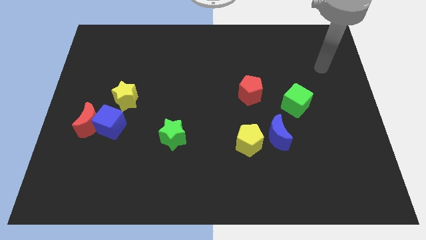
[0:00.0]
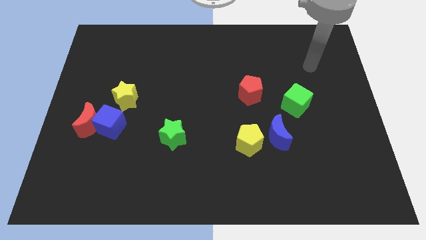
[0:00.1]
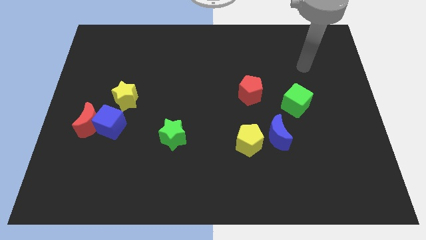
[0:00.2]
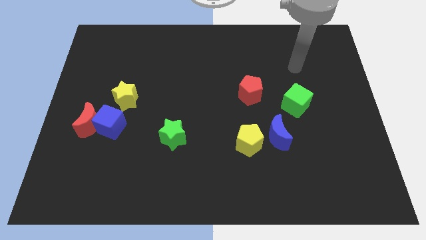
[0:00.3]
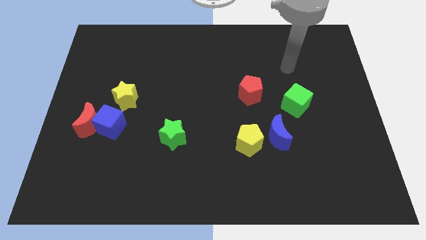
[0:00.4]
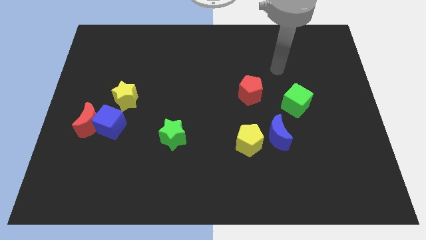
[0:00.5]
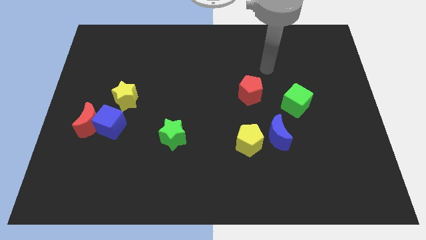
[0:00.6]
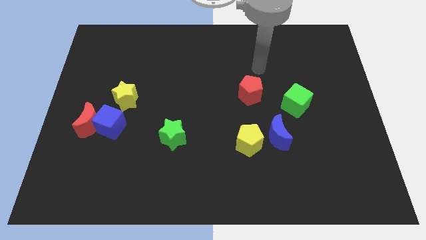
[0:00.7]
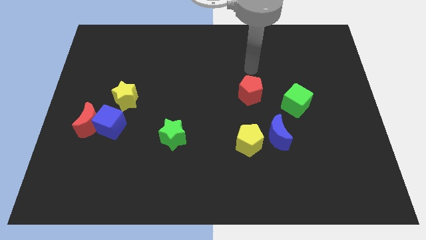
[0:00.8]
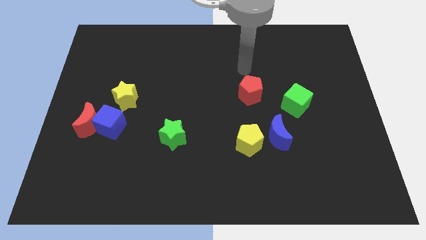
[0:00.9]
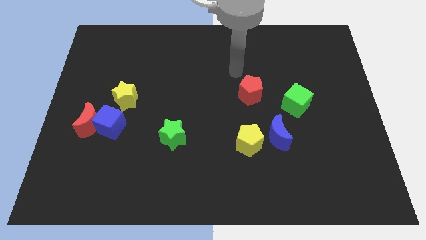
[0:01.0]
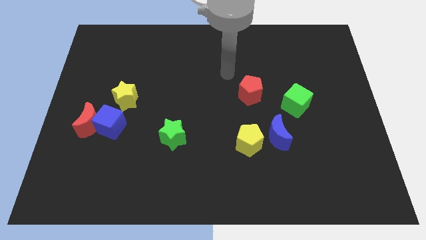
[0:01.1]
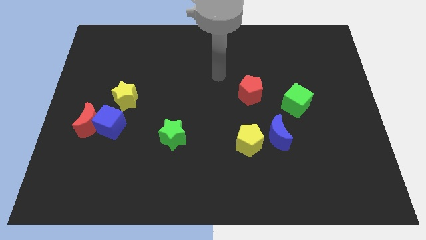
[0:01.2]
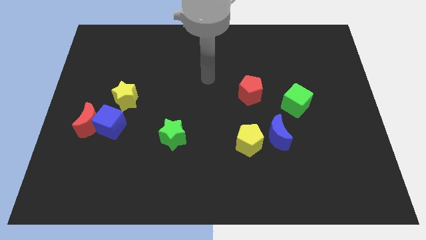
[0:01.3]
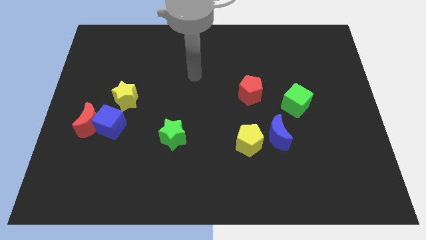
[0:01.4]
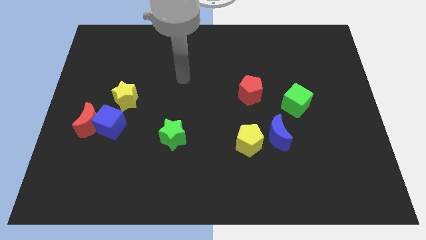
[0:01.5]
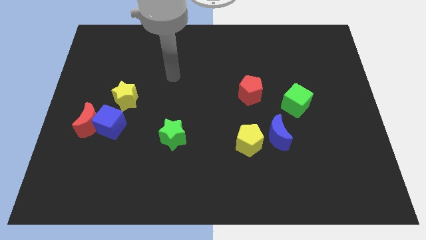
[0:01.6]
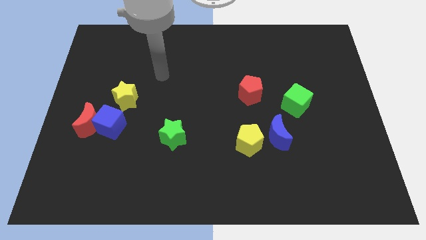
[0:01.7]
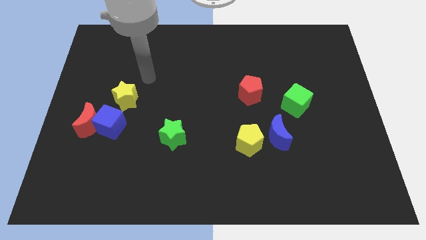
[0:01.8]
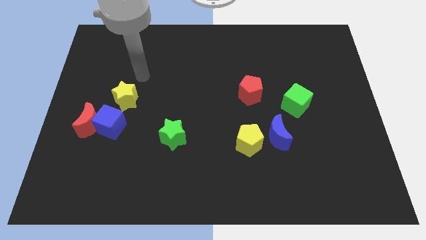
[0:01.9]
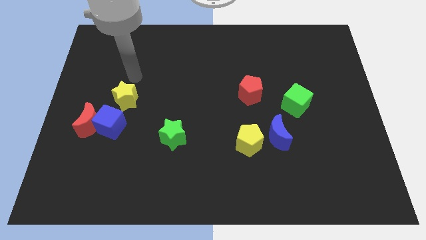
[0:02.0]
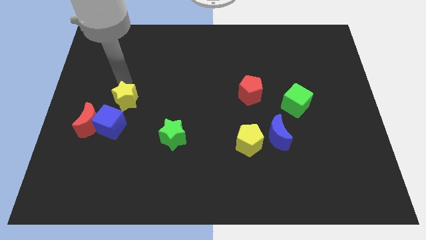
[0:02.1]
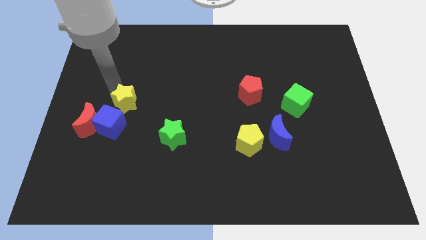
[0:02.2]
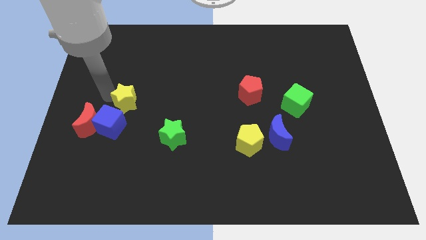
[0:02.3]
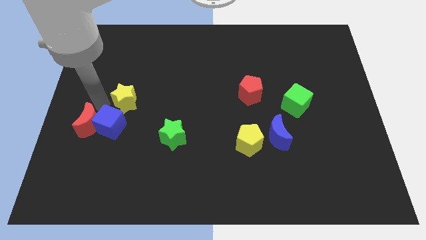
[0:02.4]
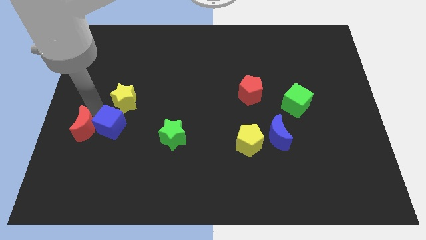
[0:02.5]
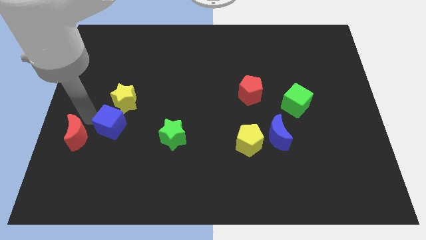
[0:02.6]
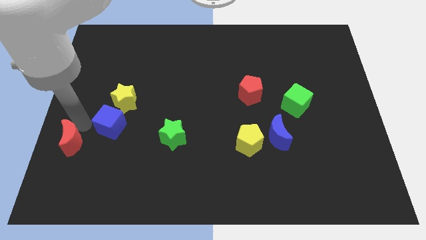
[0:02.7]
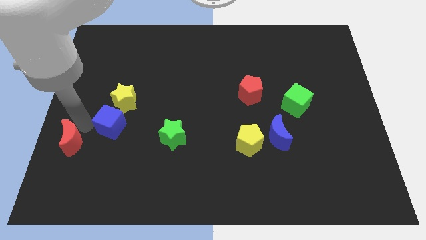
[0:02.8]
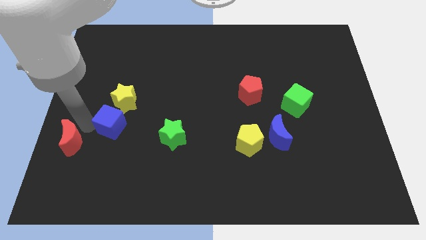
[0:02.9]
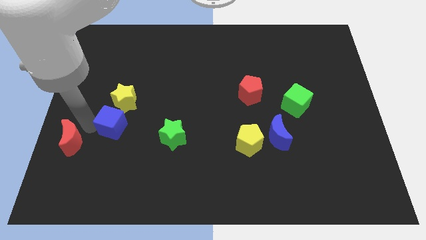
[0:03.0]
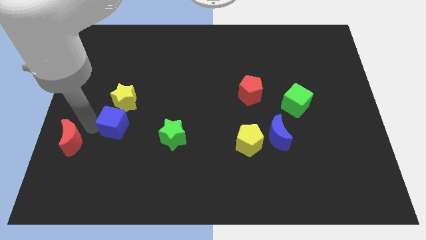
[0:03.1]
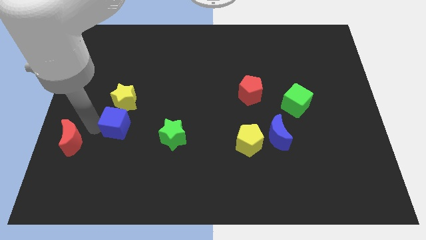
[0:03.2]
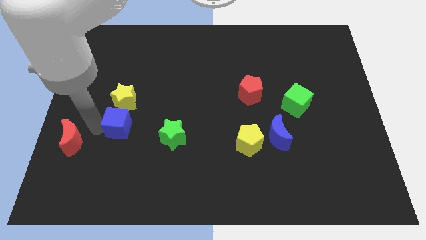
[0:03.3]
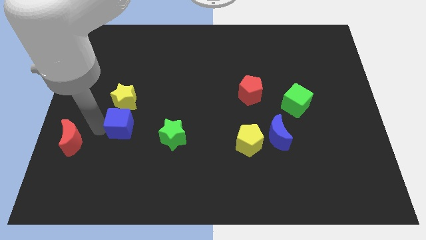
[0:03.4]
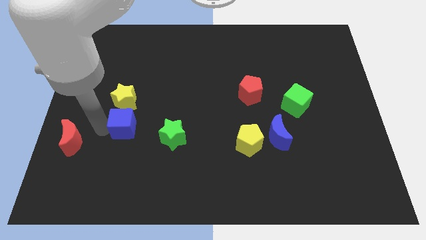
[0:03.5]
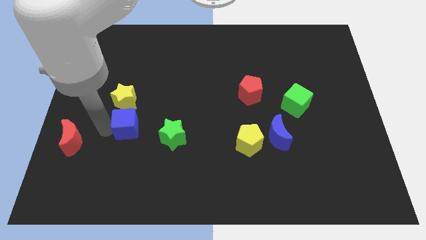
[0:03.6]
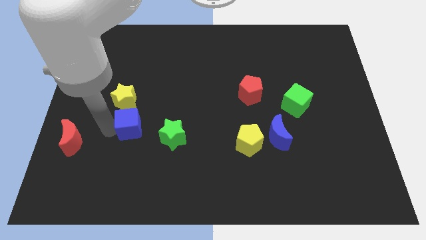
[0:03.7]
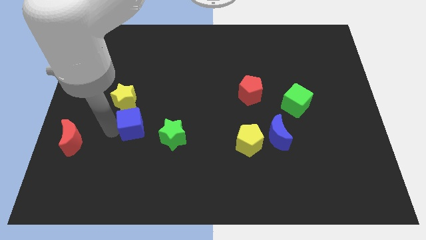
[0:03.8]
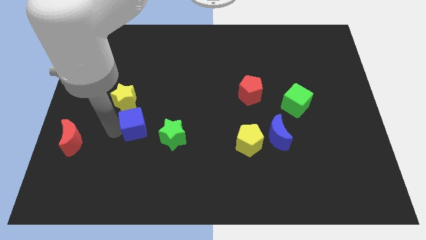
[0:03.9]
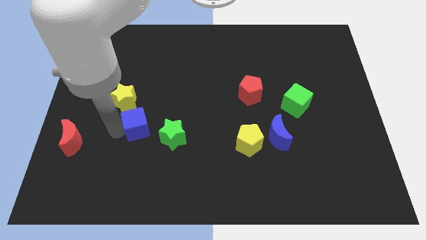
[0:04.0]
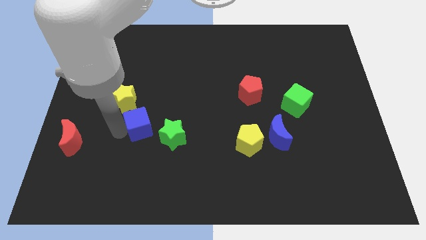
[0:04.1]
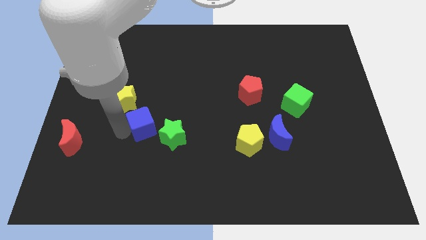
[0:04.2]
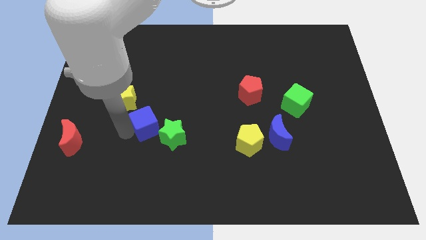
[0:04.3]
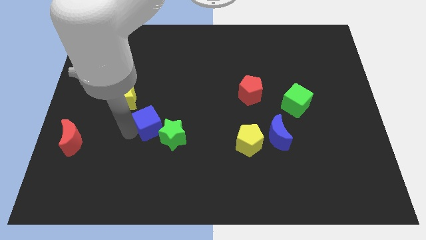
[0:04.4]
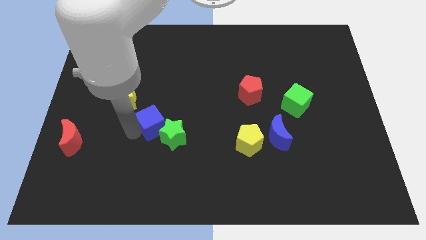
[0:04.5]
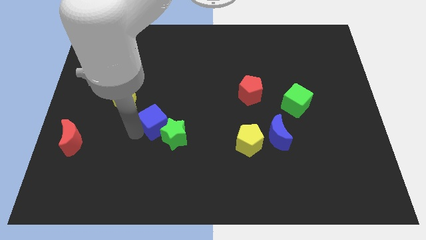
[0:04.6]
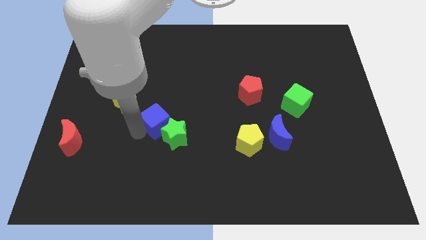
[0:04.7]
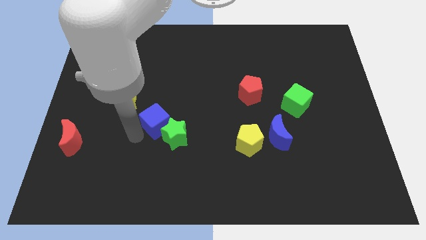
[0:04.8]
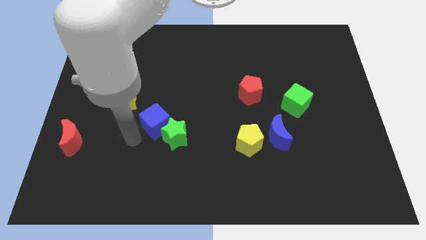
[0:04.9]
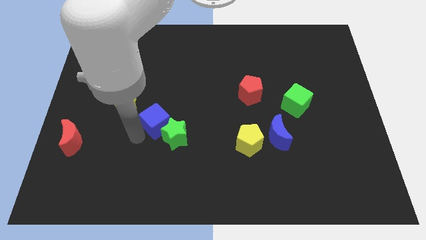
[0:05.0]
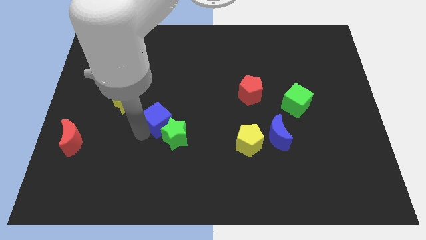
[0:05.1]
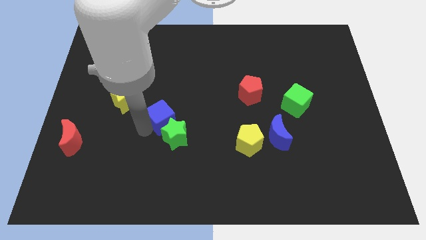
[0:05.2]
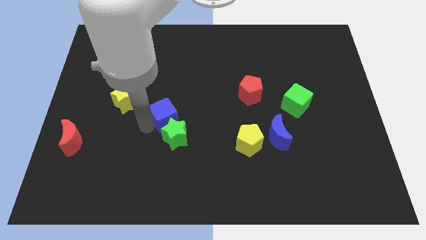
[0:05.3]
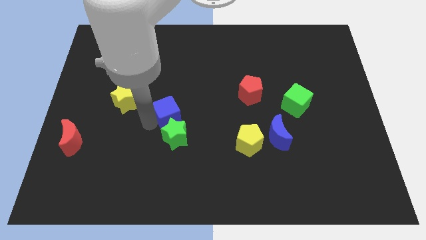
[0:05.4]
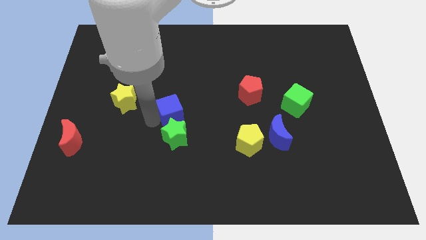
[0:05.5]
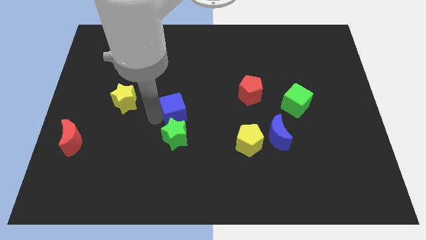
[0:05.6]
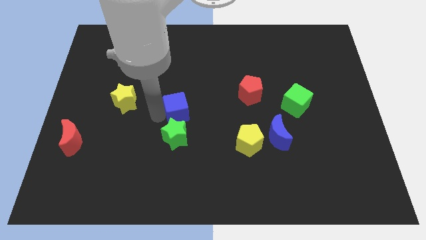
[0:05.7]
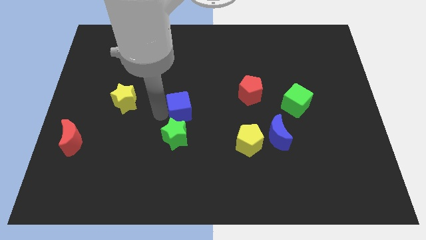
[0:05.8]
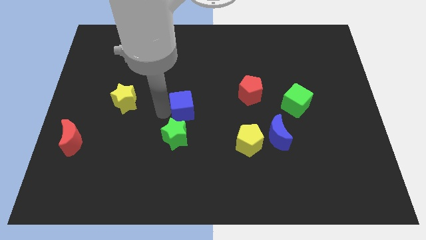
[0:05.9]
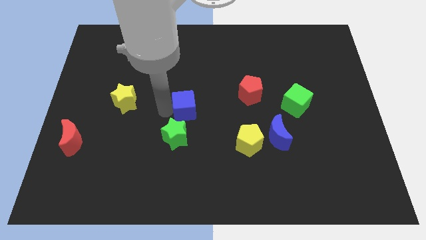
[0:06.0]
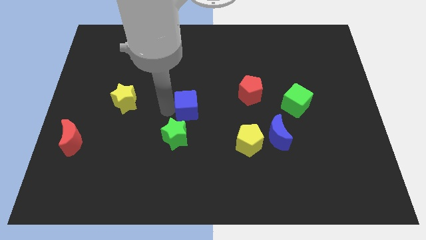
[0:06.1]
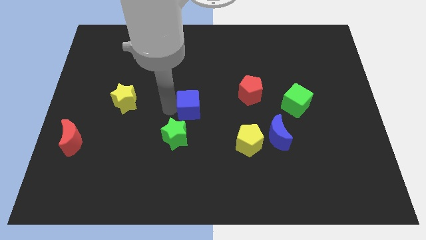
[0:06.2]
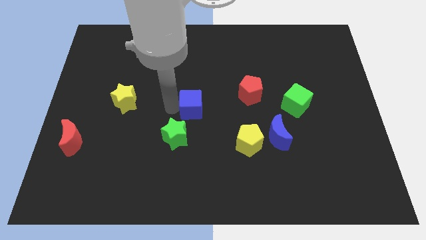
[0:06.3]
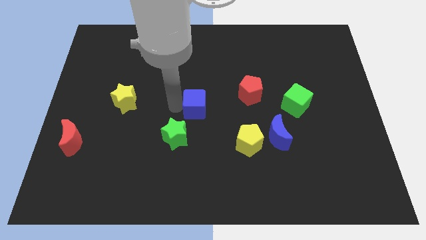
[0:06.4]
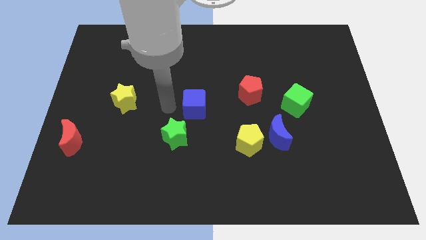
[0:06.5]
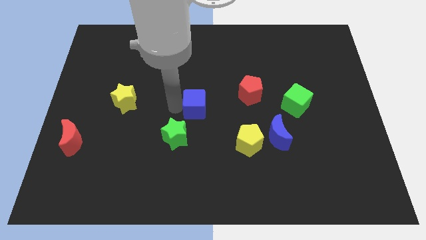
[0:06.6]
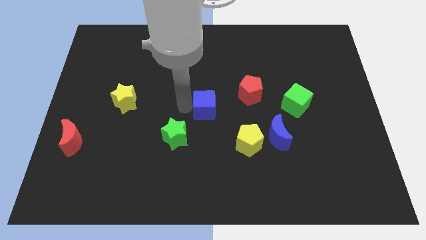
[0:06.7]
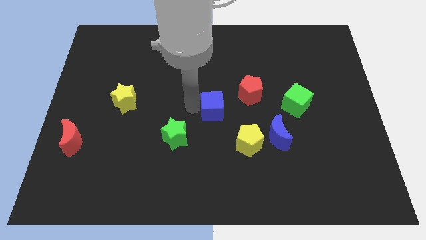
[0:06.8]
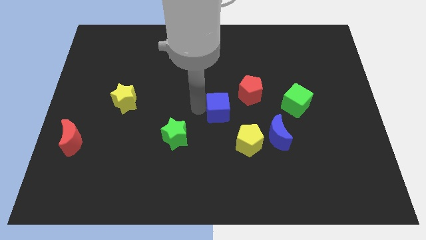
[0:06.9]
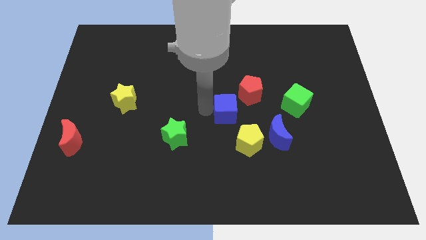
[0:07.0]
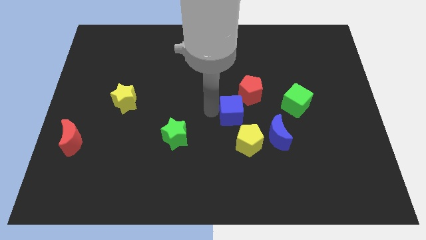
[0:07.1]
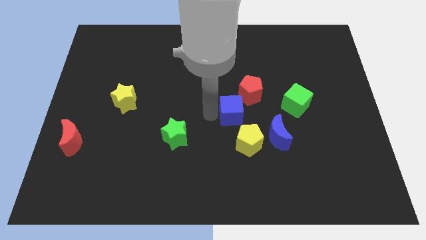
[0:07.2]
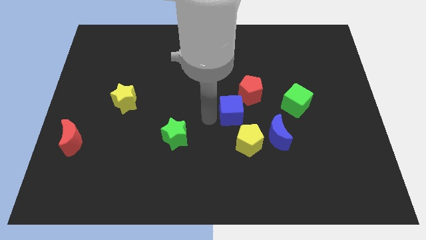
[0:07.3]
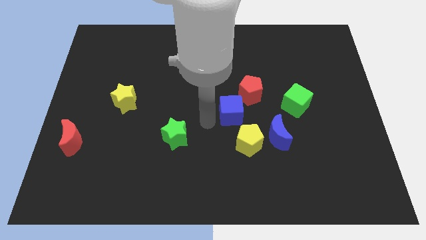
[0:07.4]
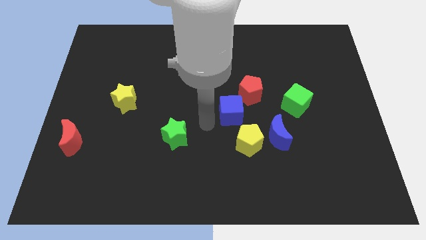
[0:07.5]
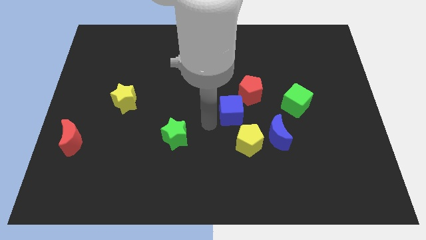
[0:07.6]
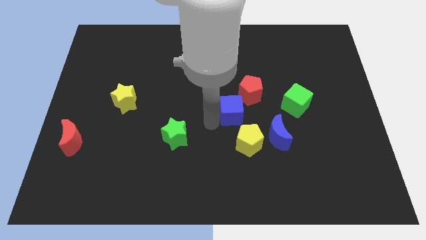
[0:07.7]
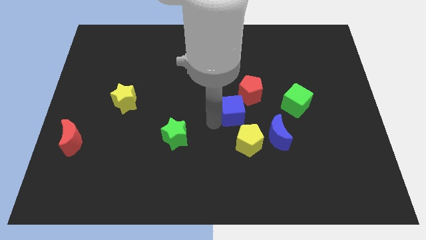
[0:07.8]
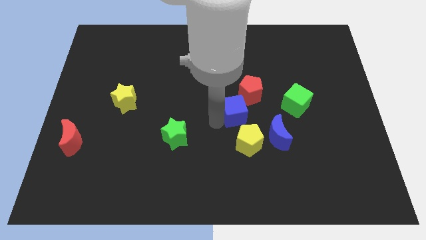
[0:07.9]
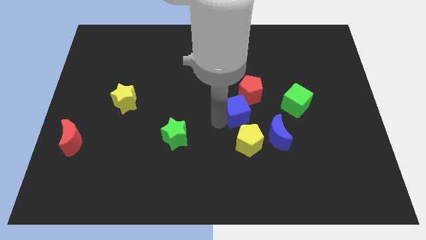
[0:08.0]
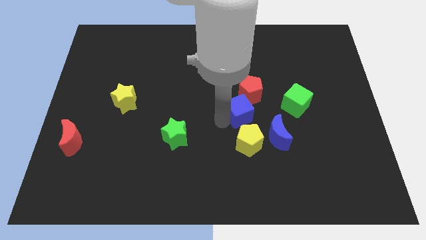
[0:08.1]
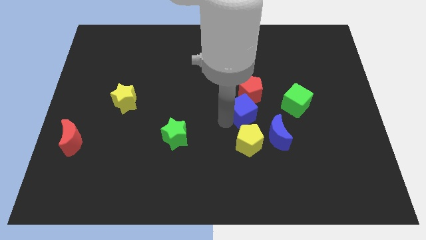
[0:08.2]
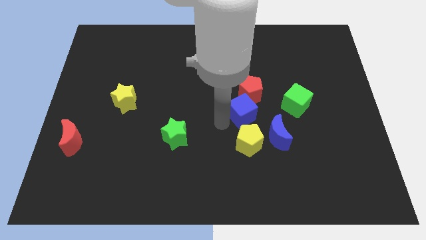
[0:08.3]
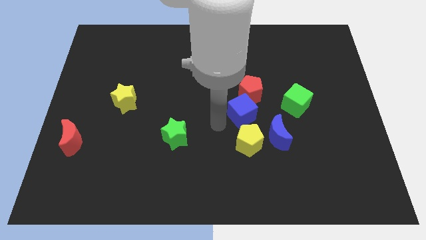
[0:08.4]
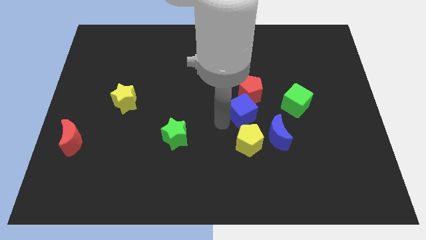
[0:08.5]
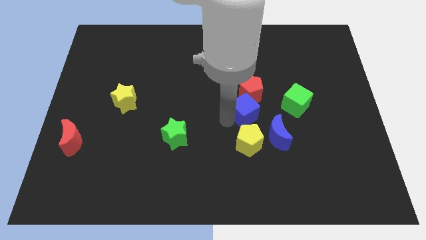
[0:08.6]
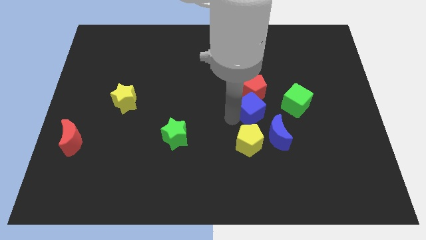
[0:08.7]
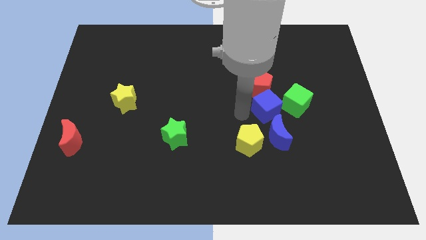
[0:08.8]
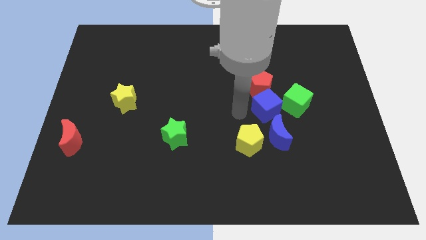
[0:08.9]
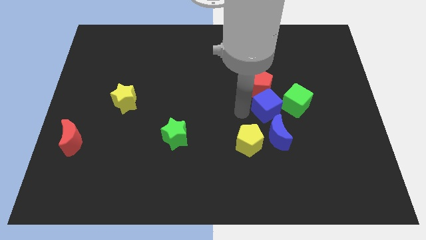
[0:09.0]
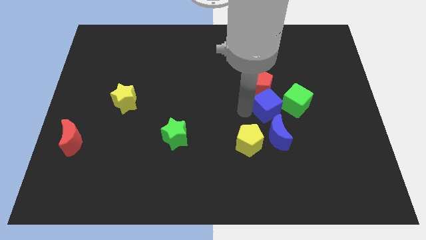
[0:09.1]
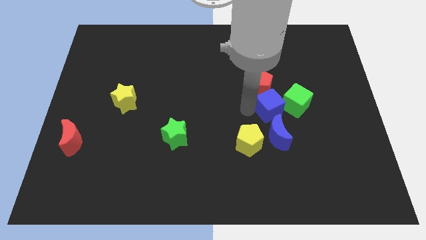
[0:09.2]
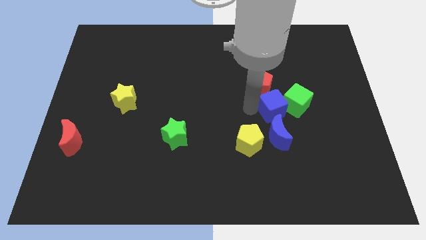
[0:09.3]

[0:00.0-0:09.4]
push the blue cube next to the green cube
